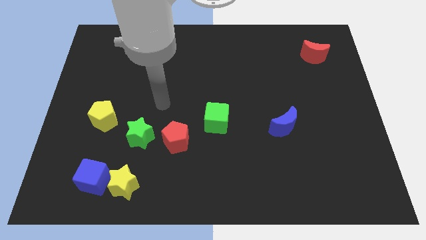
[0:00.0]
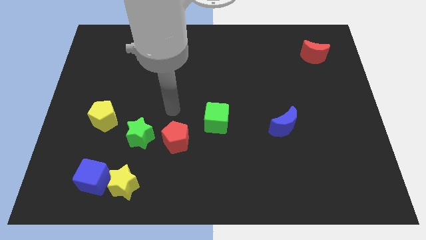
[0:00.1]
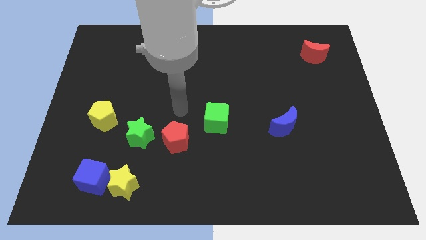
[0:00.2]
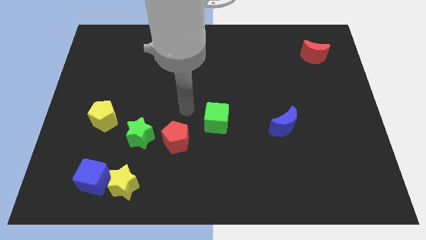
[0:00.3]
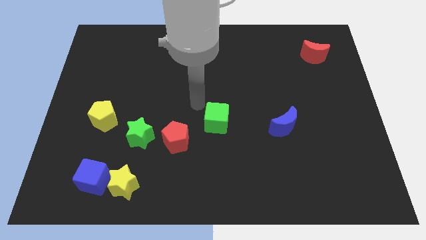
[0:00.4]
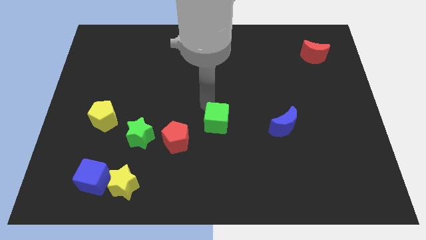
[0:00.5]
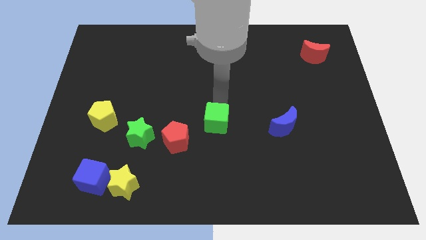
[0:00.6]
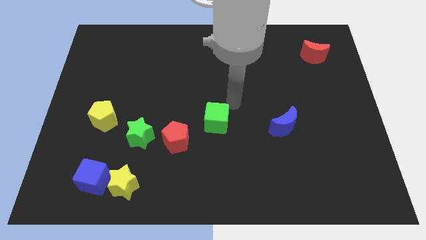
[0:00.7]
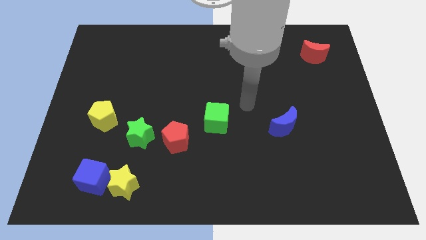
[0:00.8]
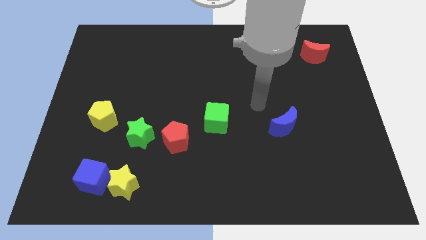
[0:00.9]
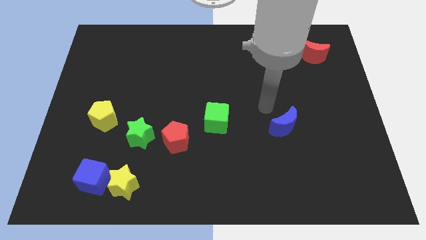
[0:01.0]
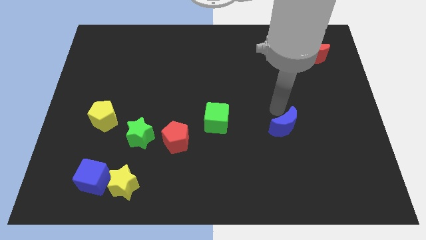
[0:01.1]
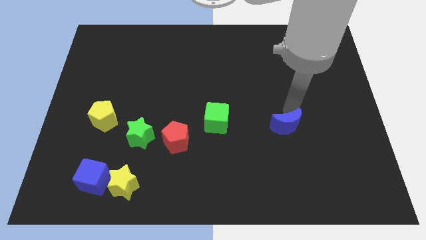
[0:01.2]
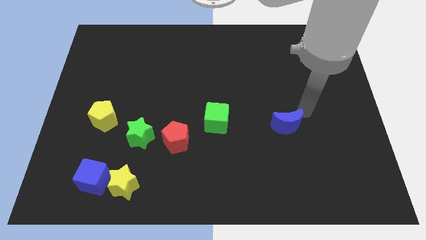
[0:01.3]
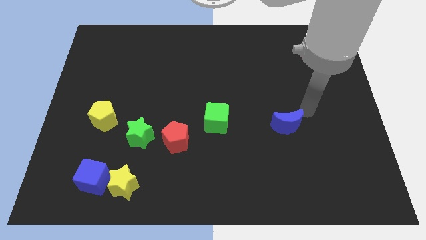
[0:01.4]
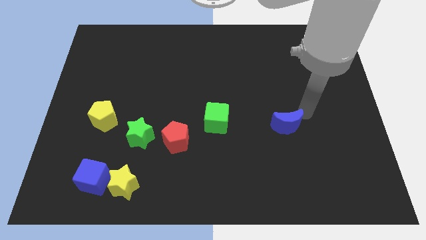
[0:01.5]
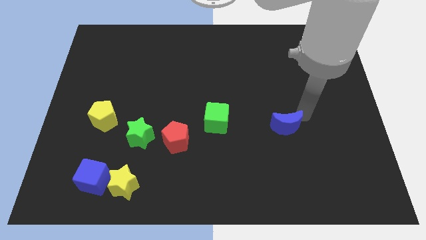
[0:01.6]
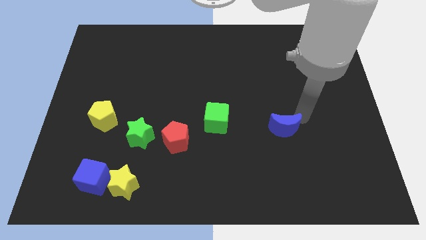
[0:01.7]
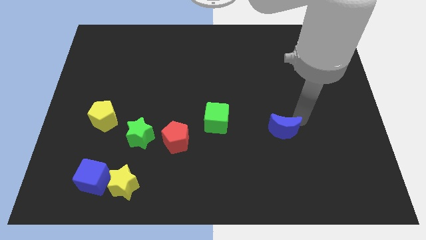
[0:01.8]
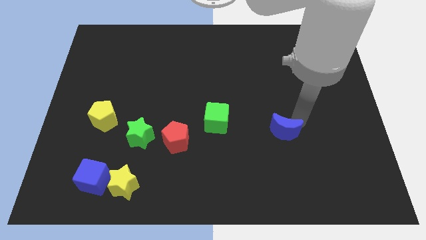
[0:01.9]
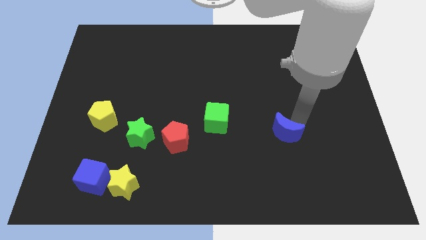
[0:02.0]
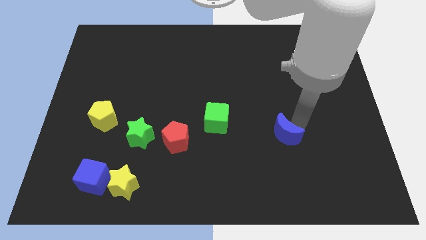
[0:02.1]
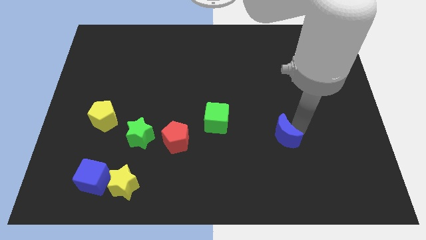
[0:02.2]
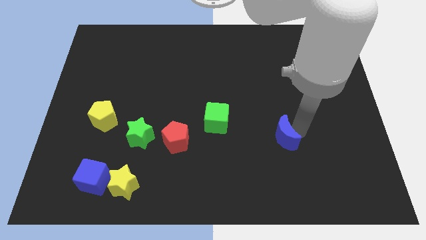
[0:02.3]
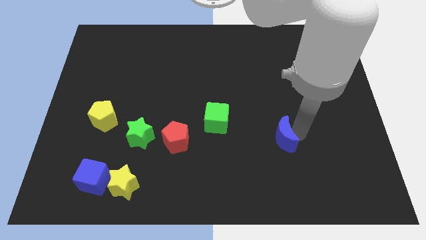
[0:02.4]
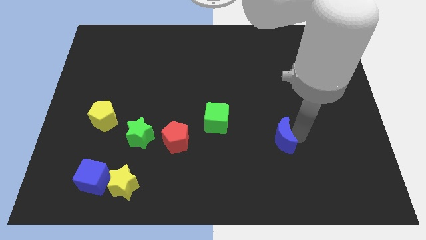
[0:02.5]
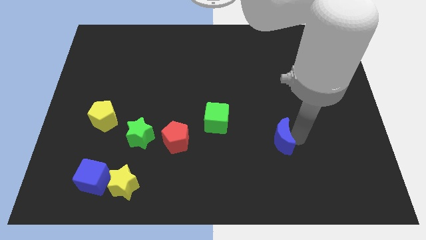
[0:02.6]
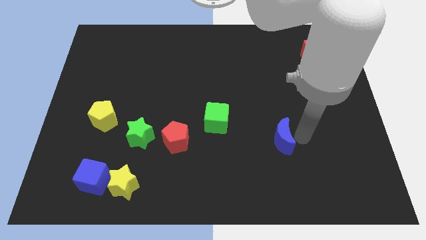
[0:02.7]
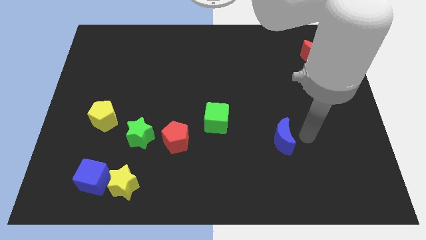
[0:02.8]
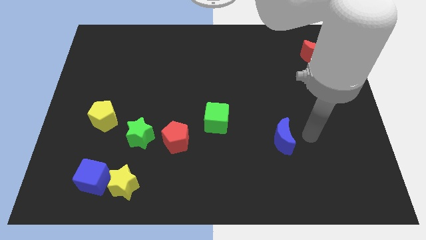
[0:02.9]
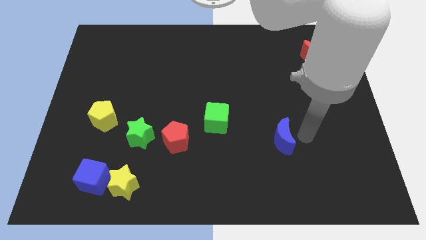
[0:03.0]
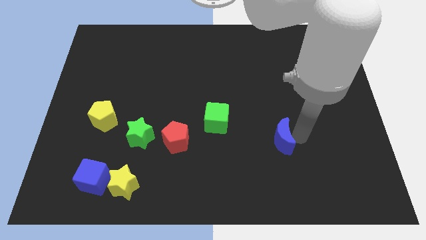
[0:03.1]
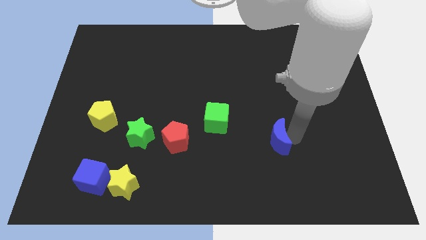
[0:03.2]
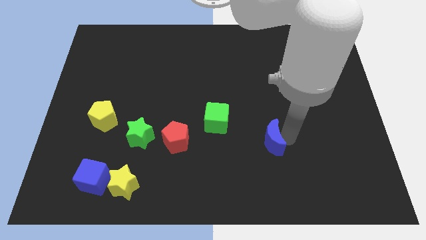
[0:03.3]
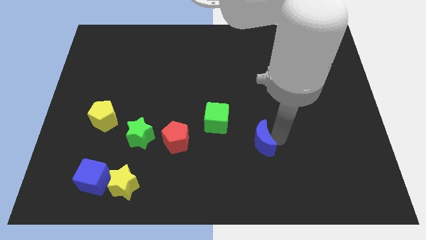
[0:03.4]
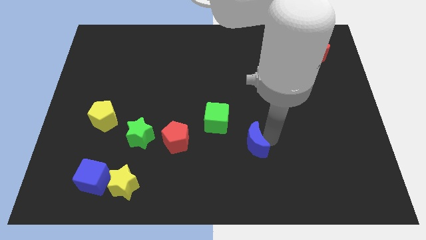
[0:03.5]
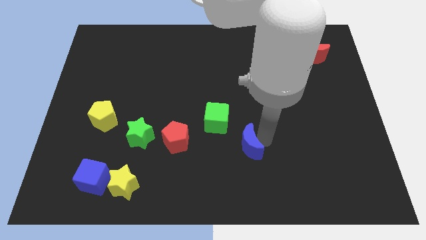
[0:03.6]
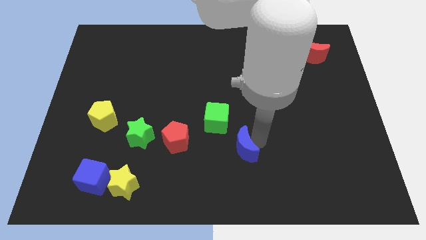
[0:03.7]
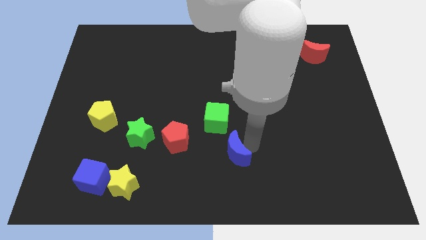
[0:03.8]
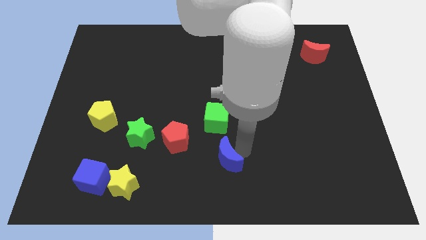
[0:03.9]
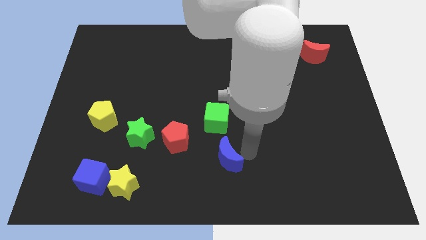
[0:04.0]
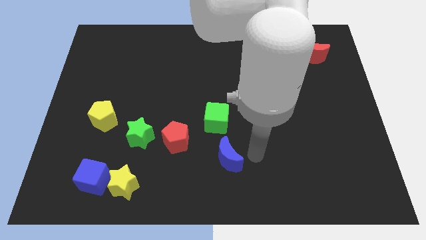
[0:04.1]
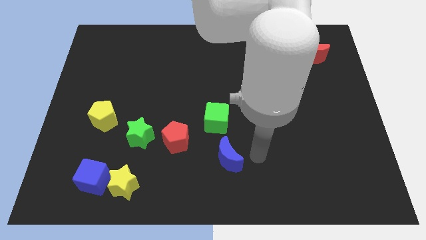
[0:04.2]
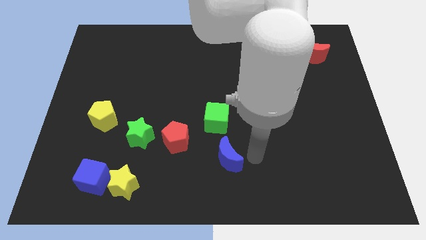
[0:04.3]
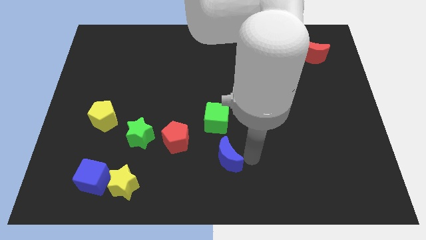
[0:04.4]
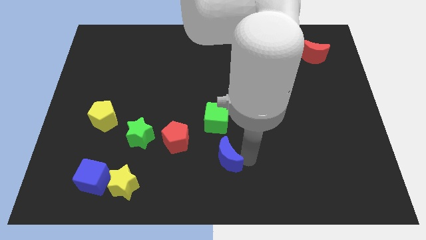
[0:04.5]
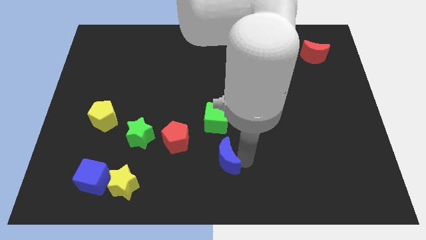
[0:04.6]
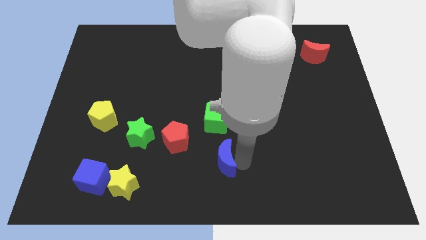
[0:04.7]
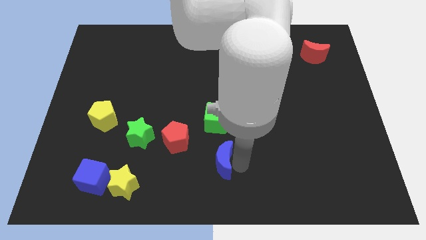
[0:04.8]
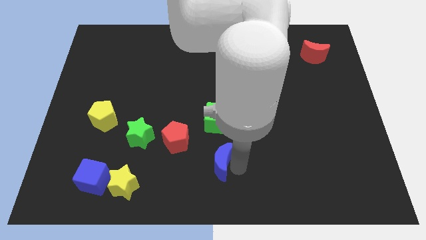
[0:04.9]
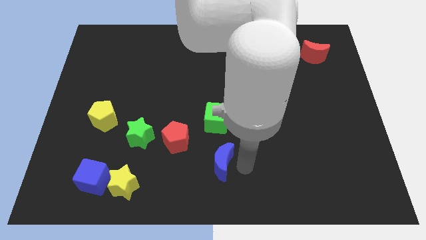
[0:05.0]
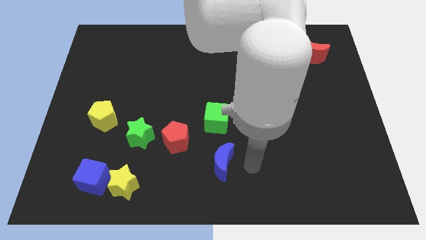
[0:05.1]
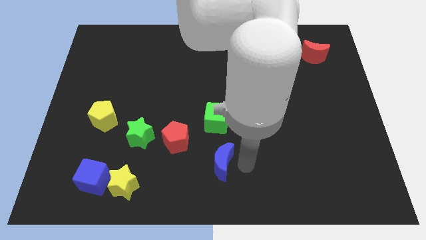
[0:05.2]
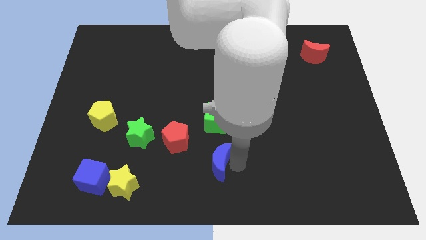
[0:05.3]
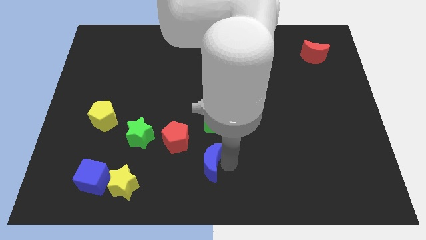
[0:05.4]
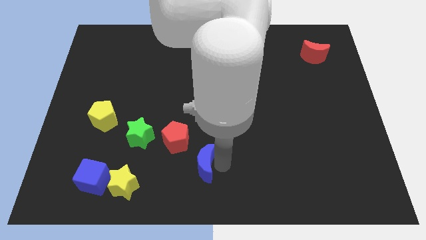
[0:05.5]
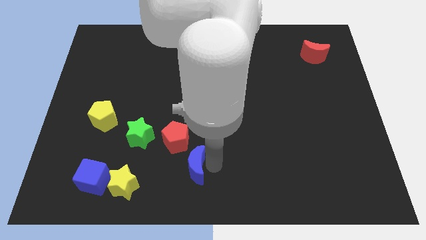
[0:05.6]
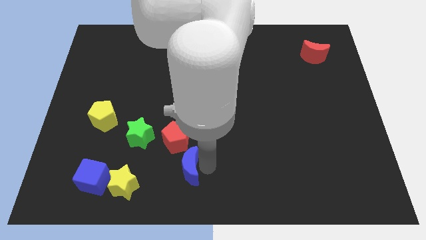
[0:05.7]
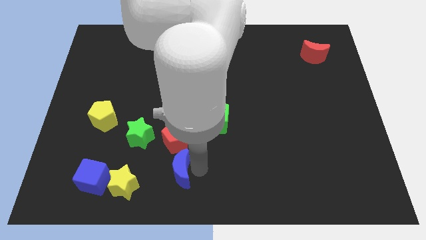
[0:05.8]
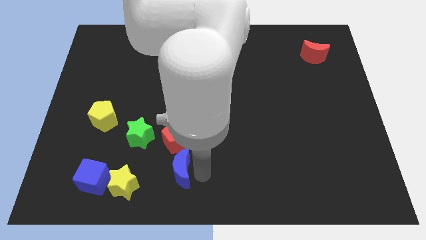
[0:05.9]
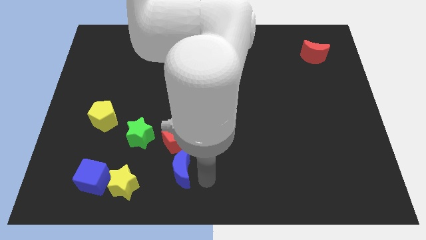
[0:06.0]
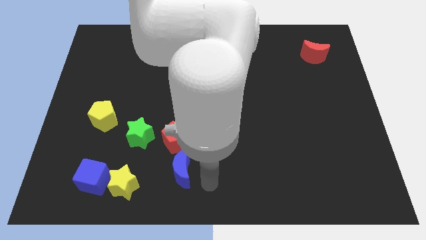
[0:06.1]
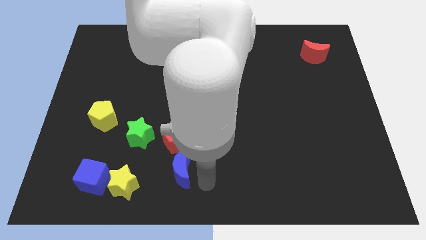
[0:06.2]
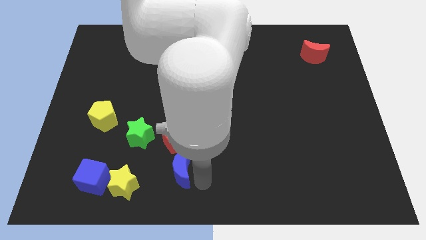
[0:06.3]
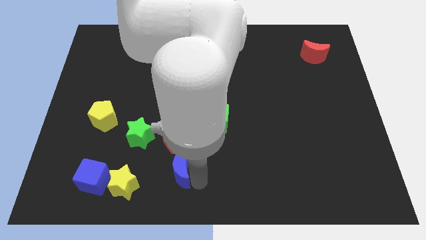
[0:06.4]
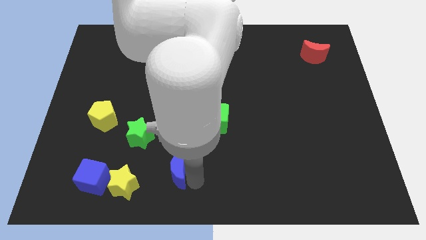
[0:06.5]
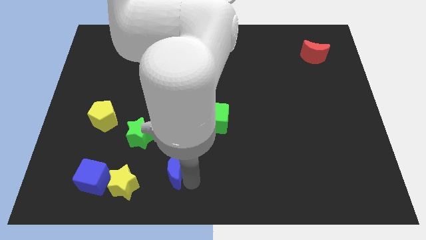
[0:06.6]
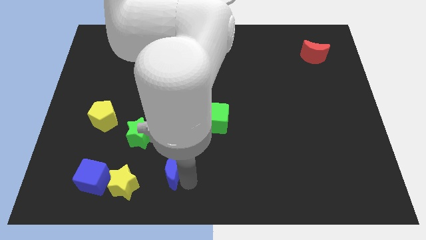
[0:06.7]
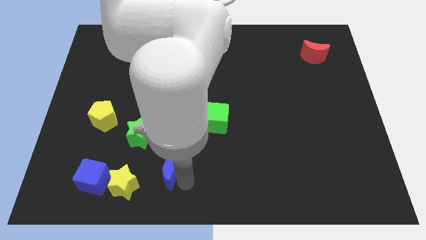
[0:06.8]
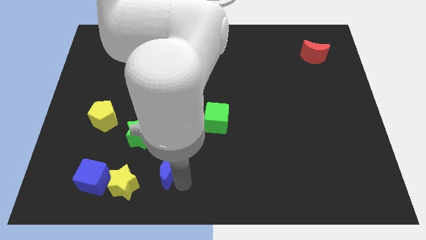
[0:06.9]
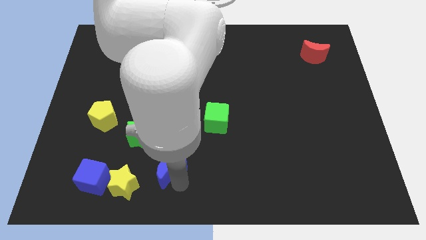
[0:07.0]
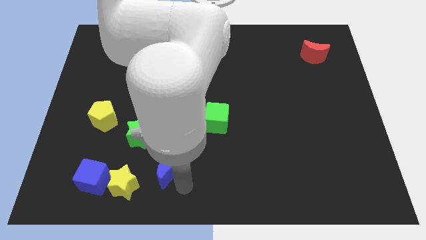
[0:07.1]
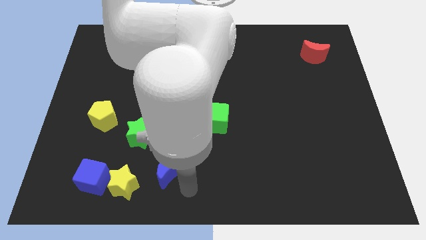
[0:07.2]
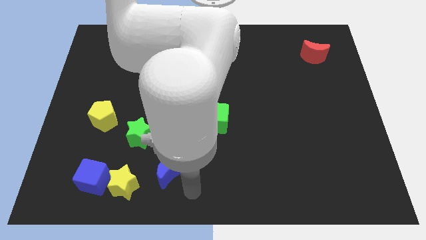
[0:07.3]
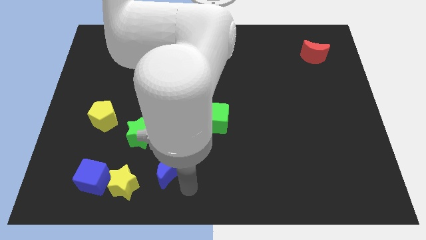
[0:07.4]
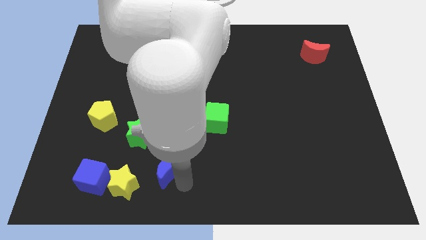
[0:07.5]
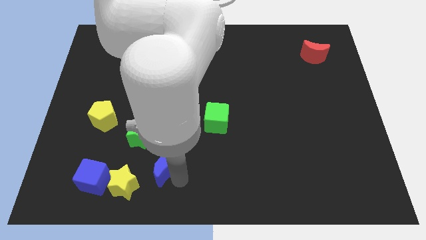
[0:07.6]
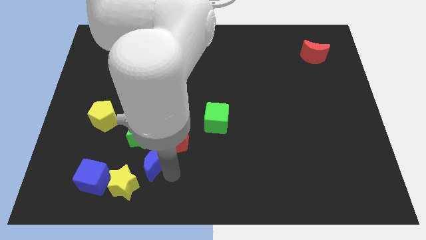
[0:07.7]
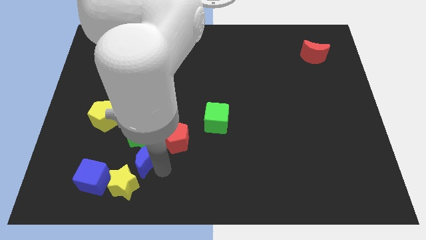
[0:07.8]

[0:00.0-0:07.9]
put the blue moon towards the green star
